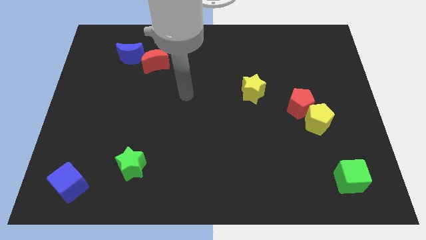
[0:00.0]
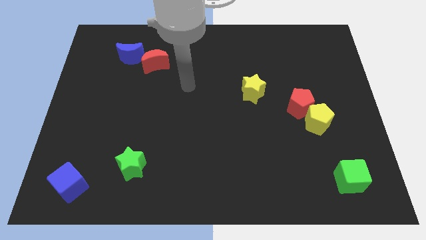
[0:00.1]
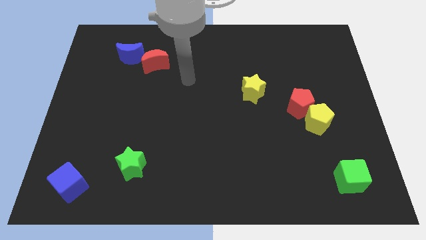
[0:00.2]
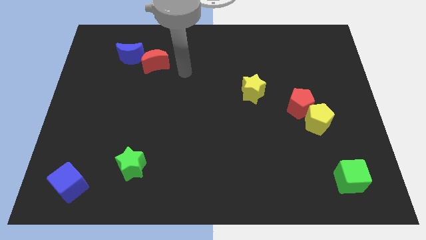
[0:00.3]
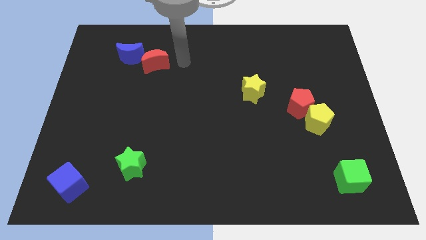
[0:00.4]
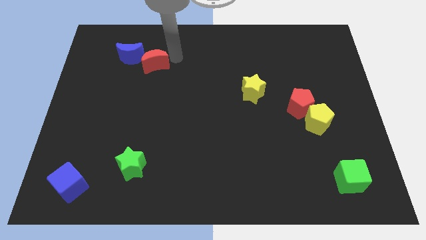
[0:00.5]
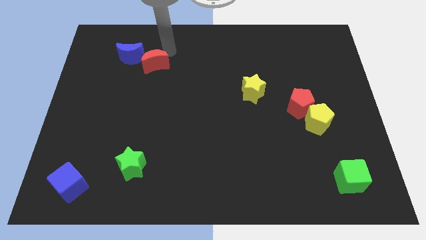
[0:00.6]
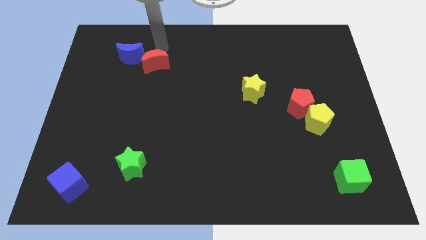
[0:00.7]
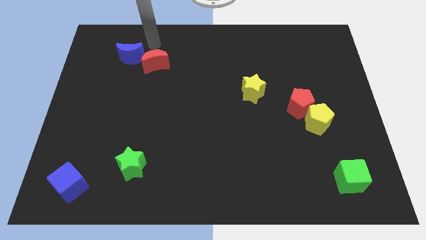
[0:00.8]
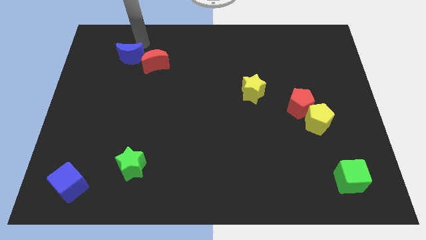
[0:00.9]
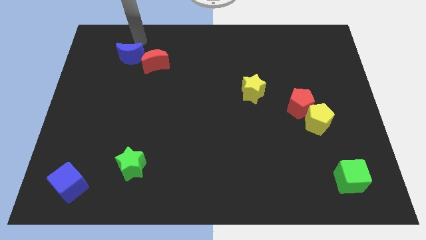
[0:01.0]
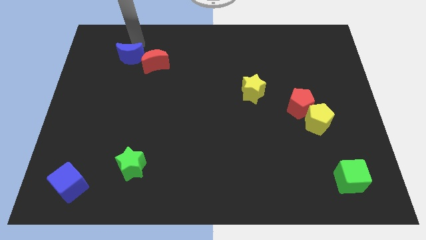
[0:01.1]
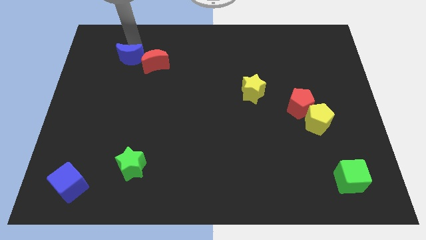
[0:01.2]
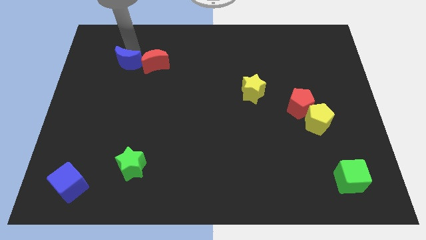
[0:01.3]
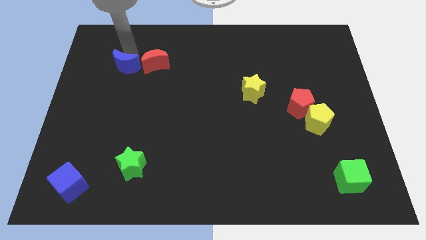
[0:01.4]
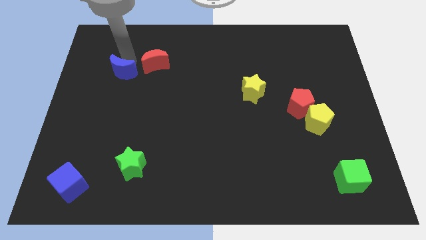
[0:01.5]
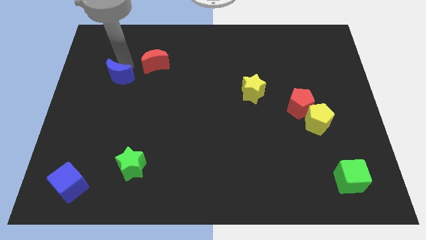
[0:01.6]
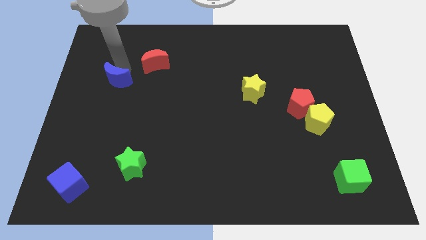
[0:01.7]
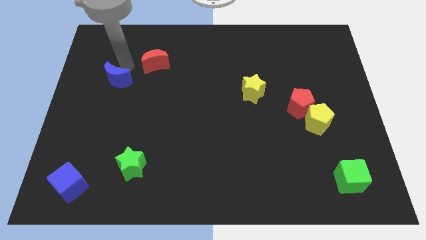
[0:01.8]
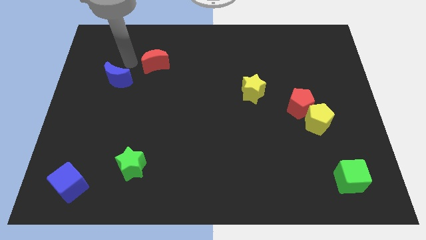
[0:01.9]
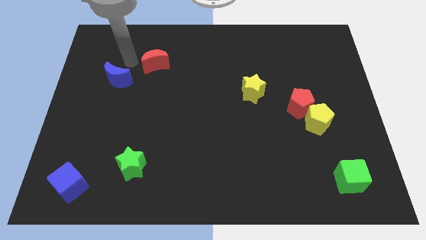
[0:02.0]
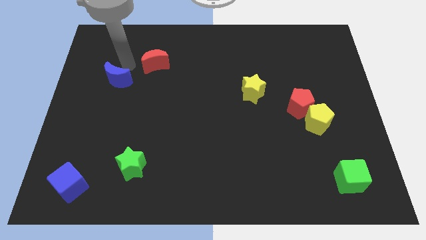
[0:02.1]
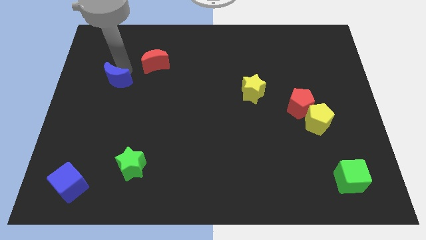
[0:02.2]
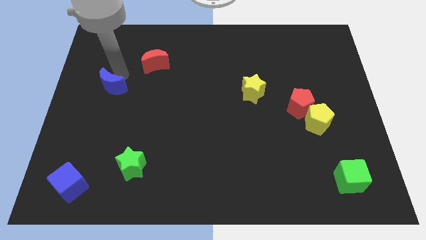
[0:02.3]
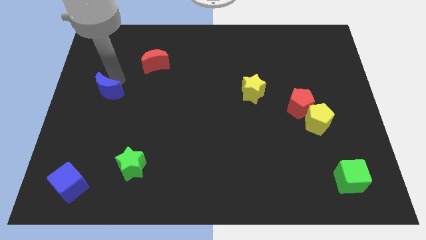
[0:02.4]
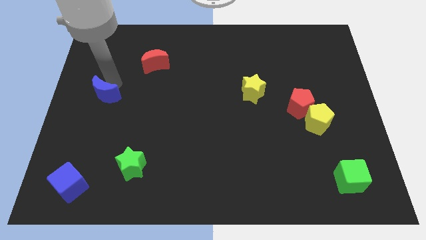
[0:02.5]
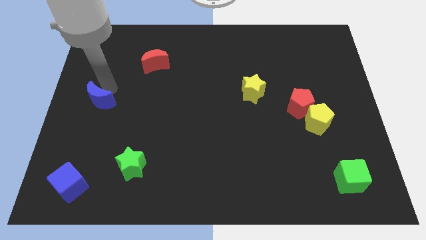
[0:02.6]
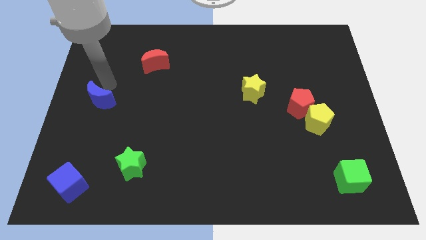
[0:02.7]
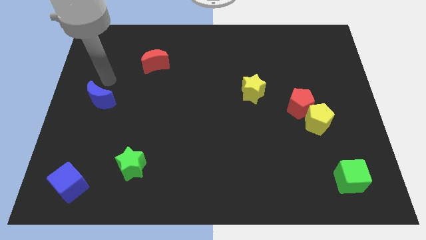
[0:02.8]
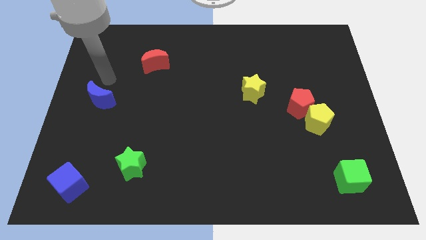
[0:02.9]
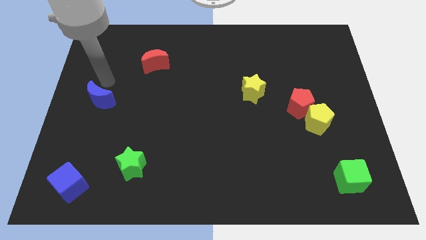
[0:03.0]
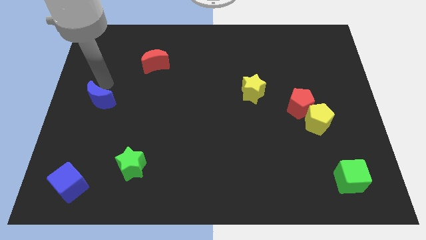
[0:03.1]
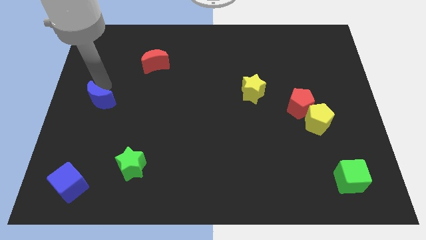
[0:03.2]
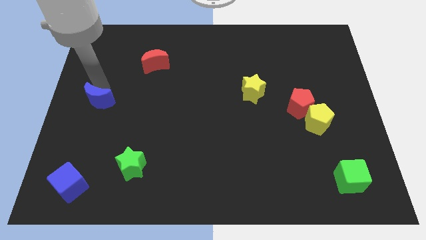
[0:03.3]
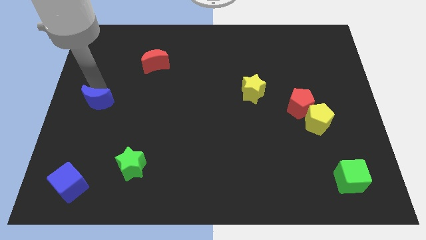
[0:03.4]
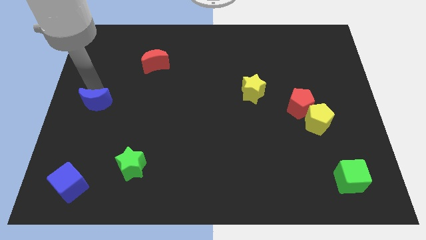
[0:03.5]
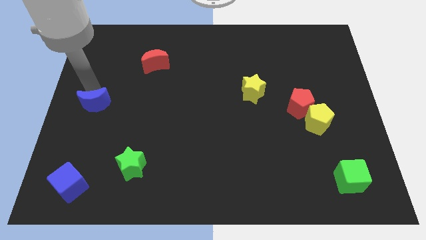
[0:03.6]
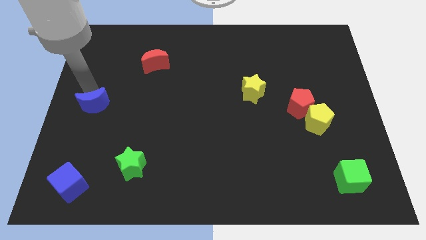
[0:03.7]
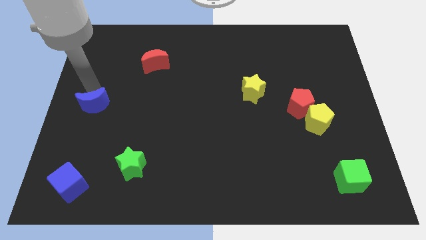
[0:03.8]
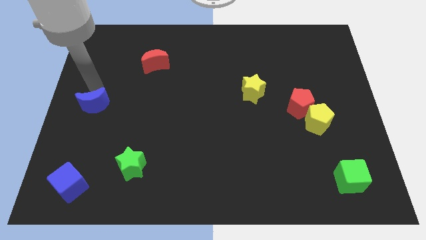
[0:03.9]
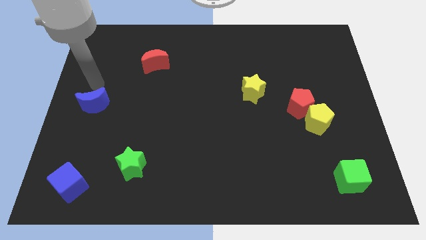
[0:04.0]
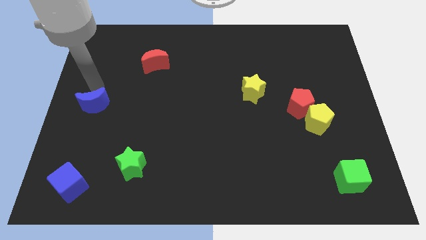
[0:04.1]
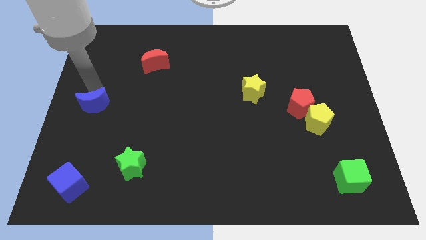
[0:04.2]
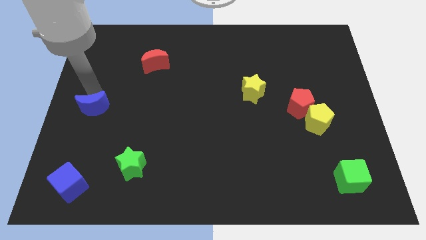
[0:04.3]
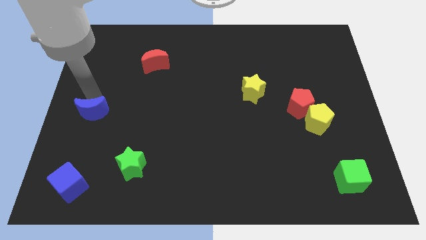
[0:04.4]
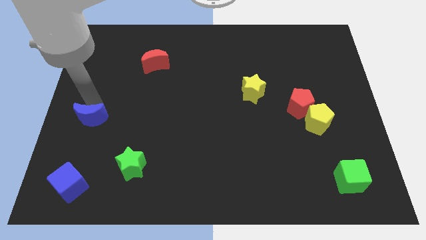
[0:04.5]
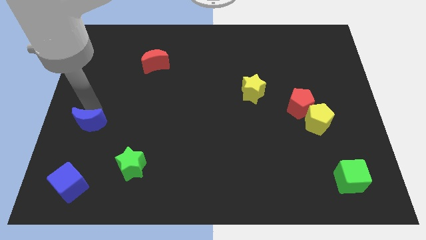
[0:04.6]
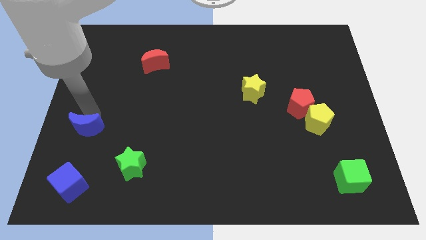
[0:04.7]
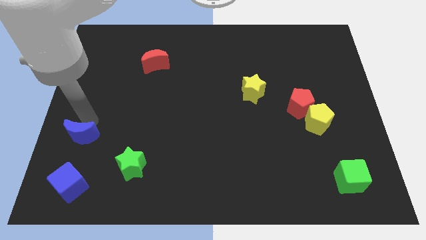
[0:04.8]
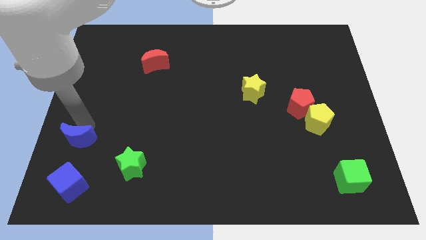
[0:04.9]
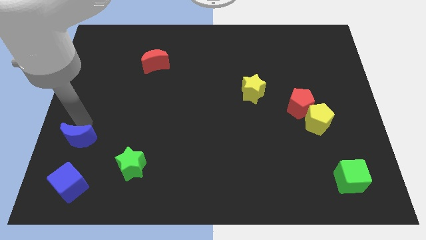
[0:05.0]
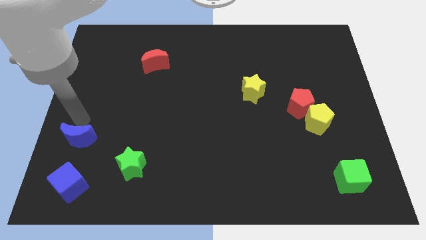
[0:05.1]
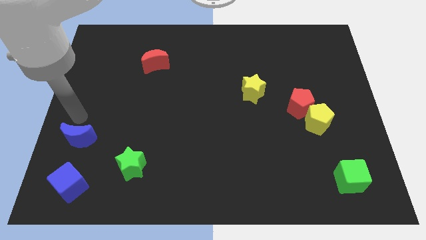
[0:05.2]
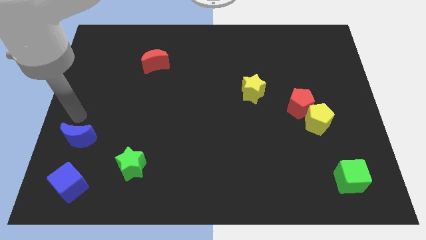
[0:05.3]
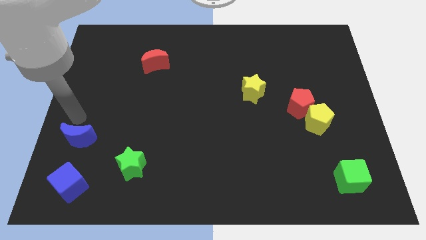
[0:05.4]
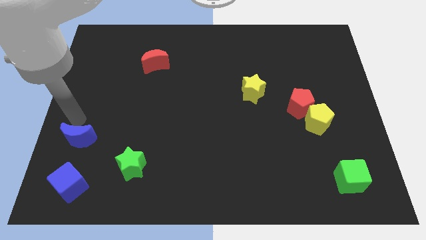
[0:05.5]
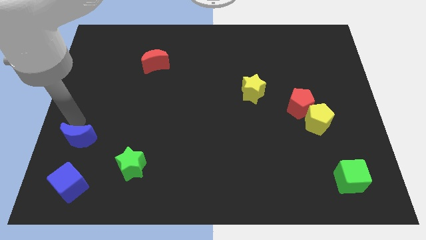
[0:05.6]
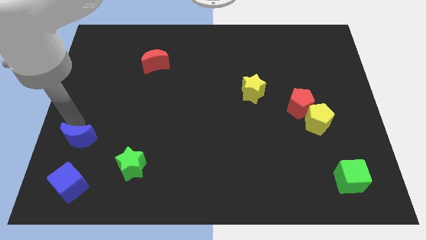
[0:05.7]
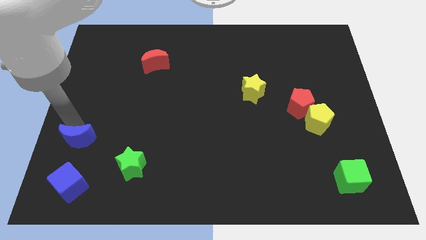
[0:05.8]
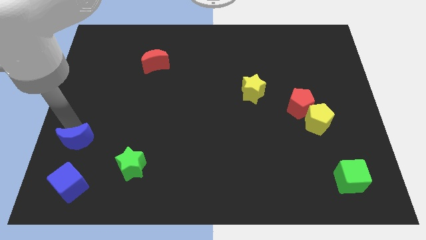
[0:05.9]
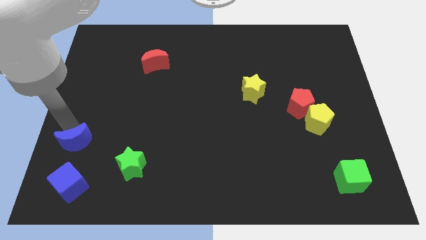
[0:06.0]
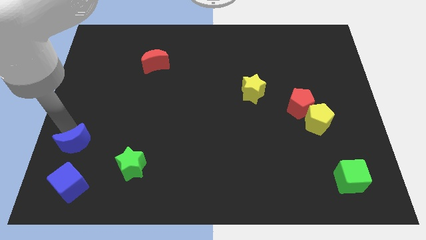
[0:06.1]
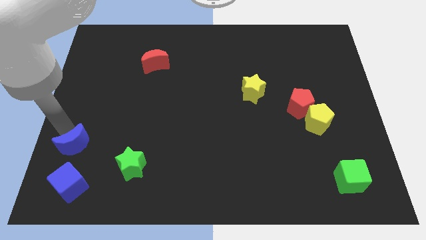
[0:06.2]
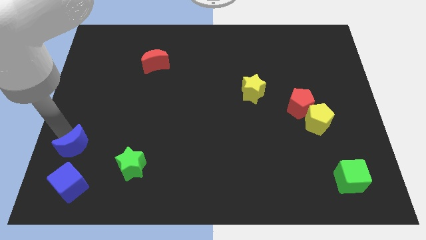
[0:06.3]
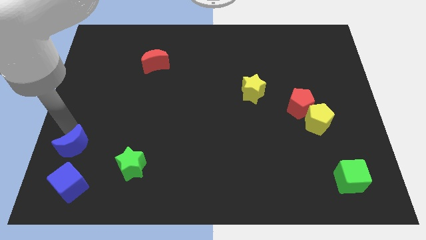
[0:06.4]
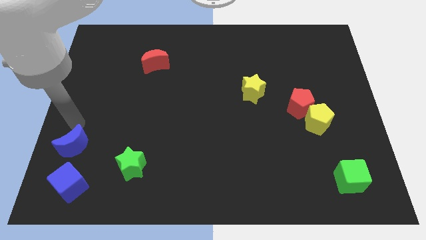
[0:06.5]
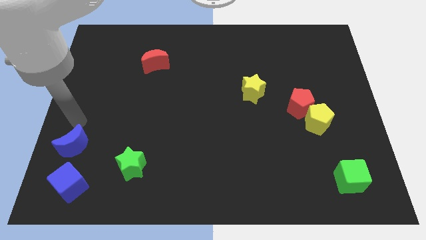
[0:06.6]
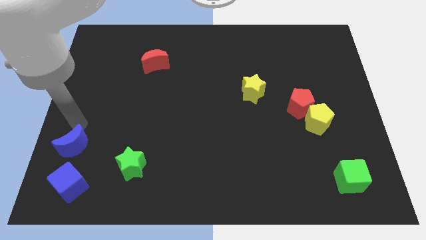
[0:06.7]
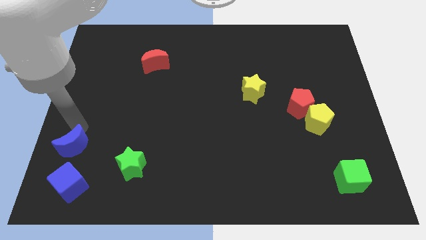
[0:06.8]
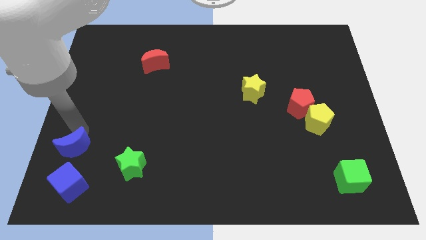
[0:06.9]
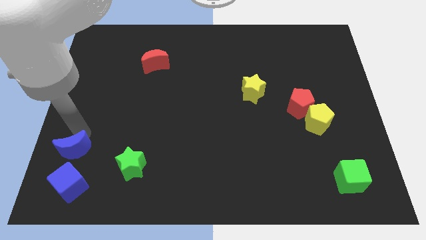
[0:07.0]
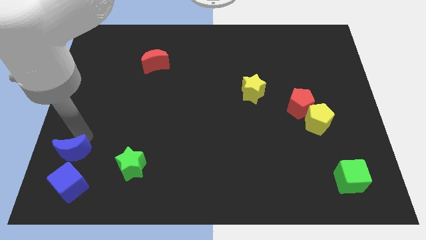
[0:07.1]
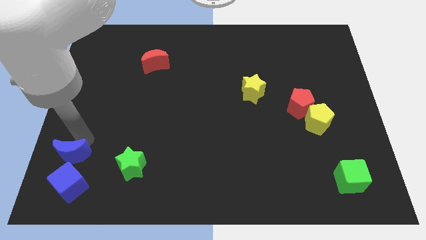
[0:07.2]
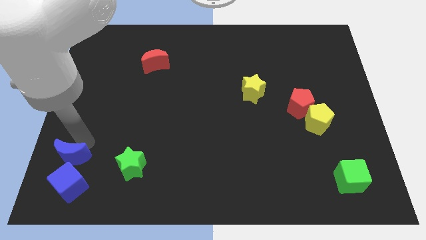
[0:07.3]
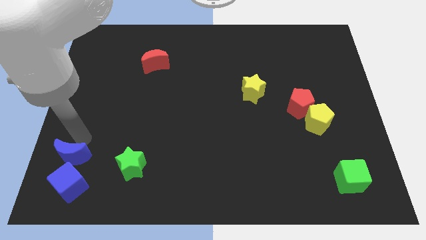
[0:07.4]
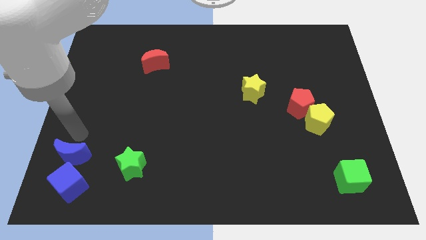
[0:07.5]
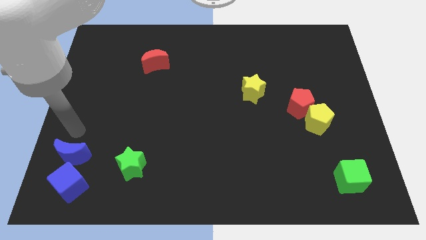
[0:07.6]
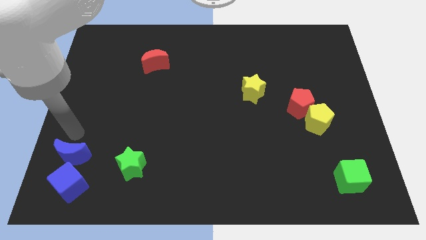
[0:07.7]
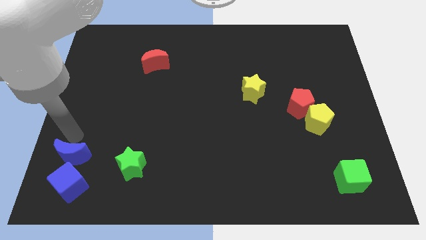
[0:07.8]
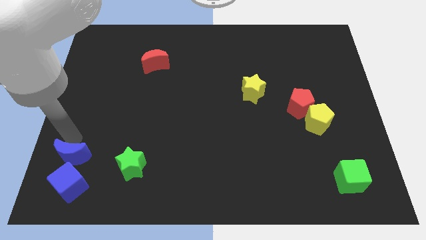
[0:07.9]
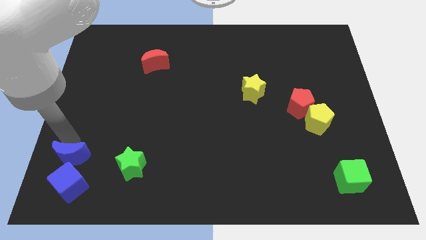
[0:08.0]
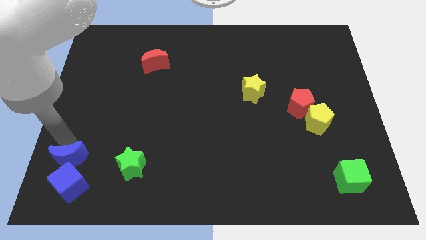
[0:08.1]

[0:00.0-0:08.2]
push the blue moon towards the blue cube
